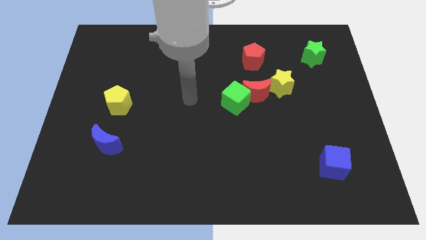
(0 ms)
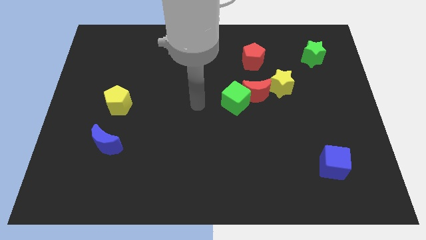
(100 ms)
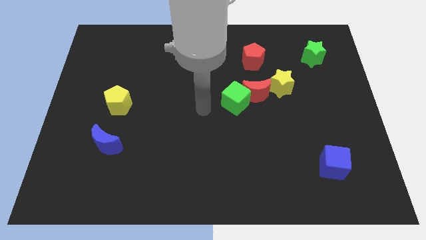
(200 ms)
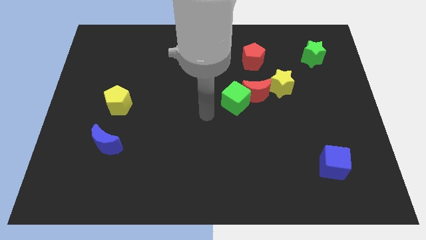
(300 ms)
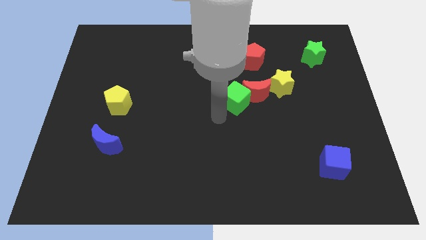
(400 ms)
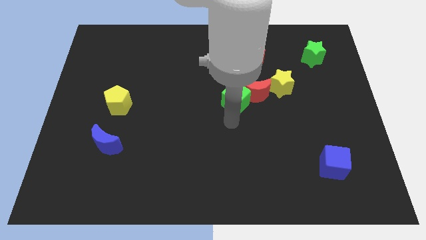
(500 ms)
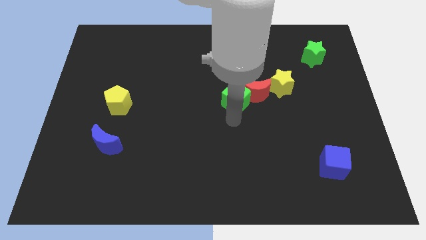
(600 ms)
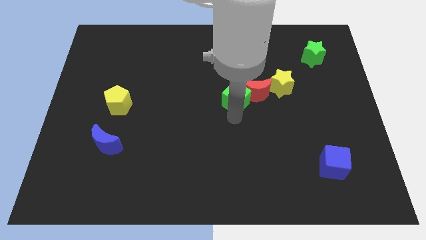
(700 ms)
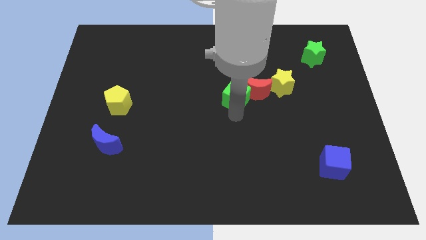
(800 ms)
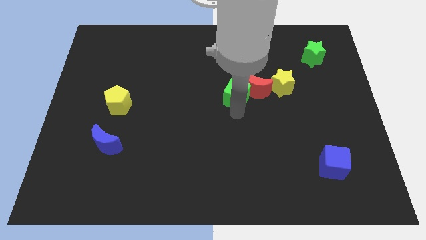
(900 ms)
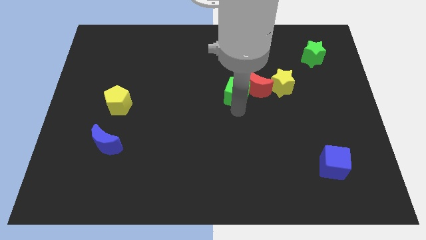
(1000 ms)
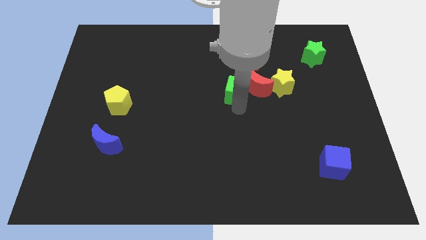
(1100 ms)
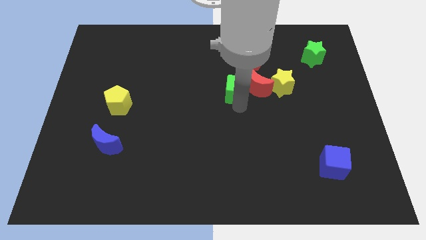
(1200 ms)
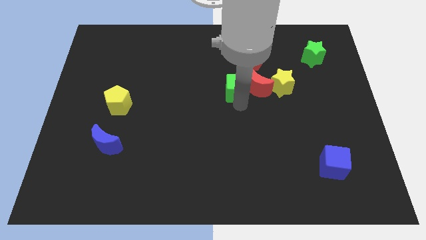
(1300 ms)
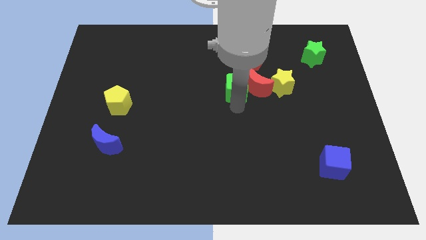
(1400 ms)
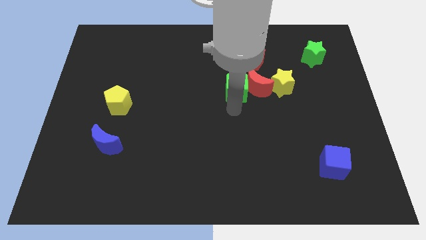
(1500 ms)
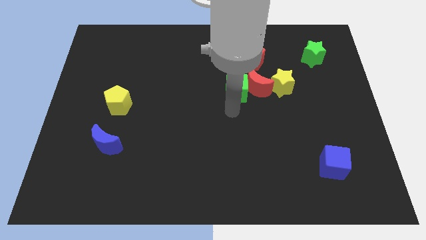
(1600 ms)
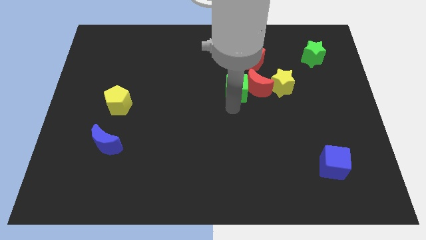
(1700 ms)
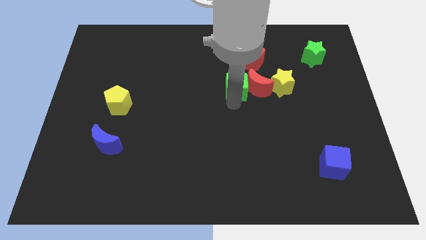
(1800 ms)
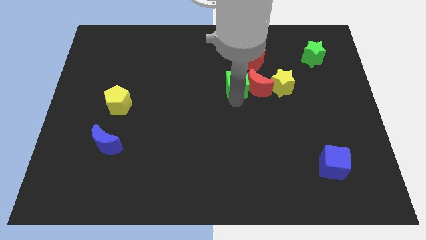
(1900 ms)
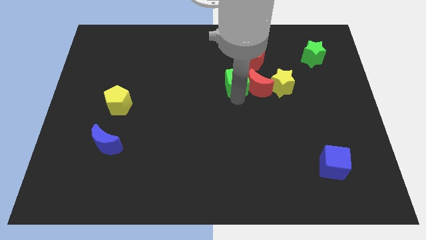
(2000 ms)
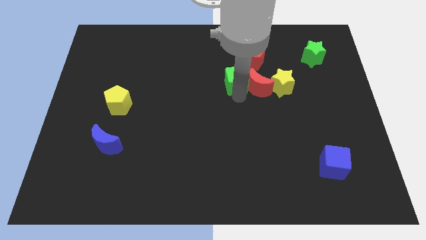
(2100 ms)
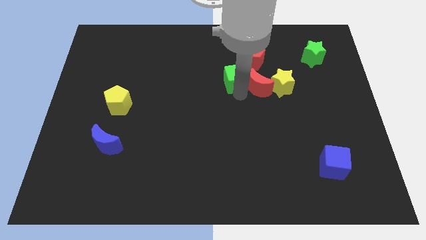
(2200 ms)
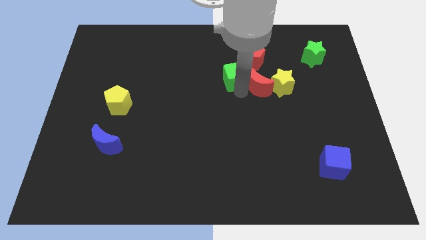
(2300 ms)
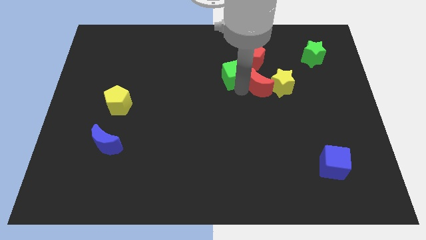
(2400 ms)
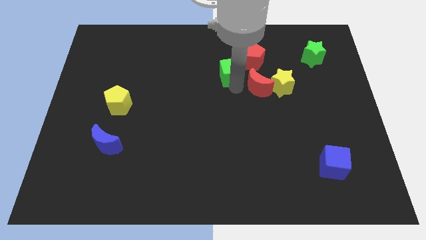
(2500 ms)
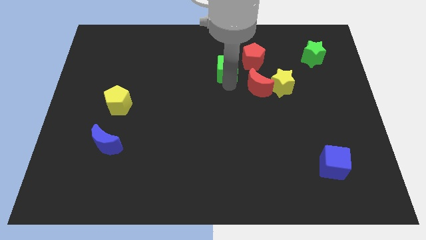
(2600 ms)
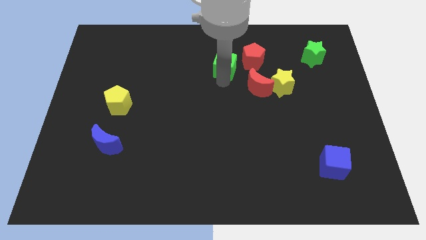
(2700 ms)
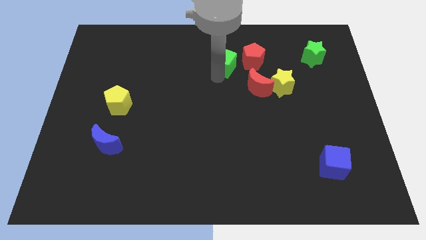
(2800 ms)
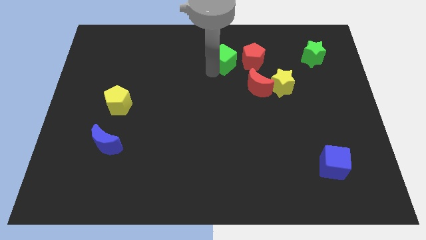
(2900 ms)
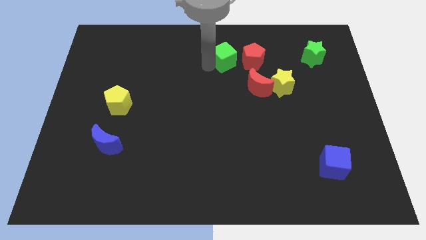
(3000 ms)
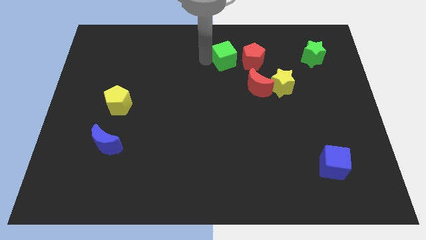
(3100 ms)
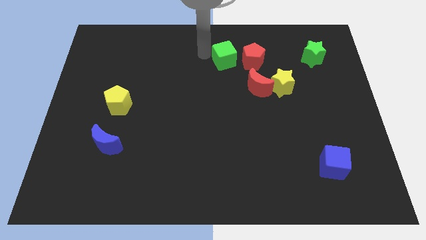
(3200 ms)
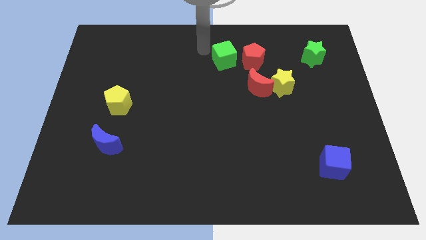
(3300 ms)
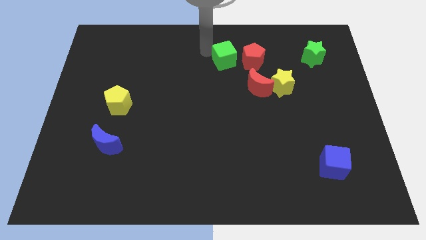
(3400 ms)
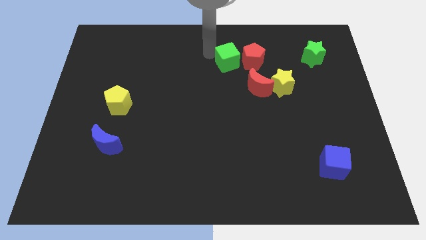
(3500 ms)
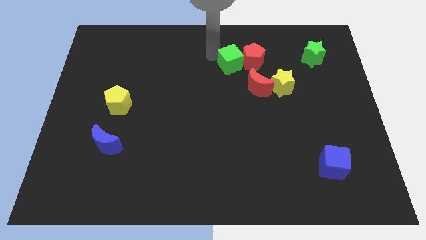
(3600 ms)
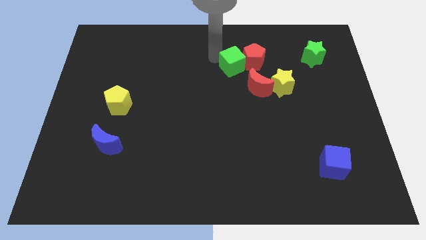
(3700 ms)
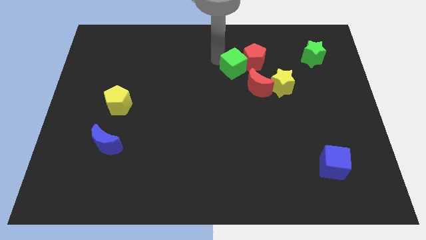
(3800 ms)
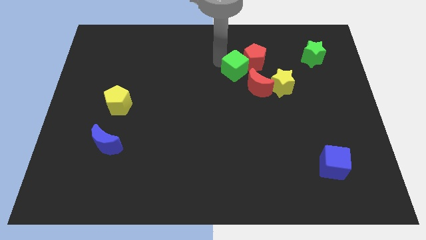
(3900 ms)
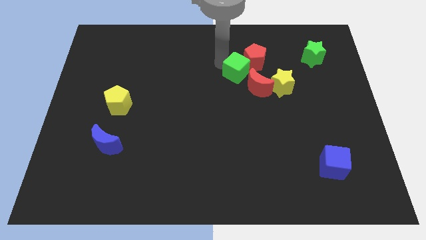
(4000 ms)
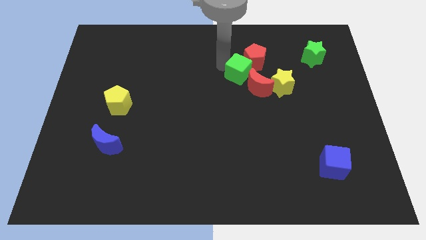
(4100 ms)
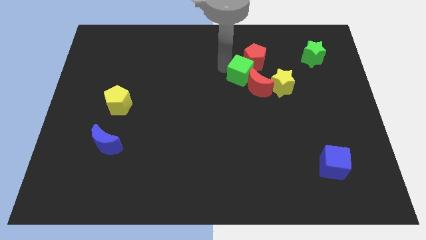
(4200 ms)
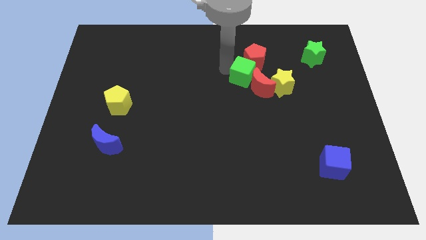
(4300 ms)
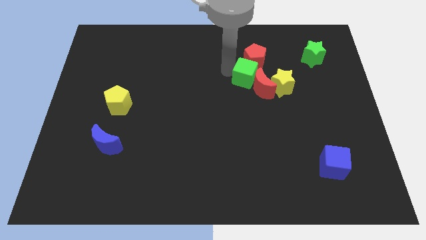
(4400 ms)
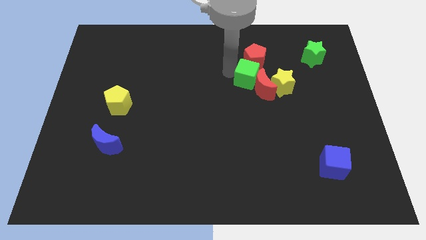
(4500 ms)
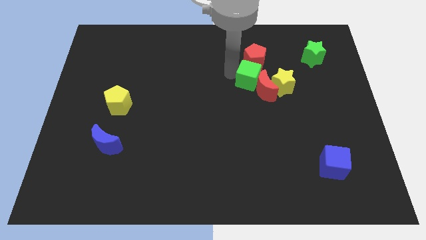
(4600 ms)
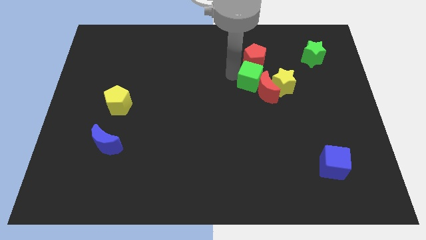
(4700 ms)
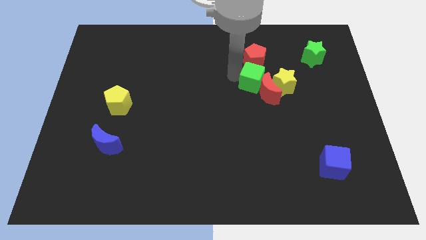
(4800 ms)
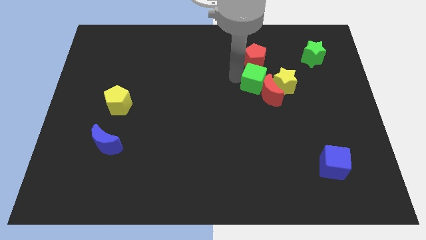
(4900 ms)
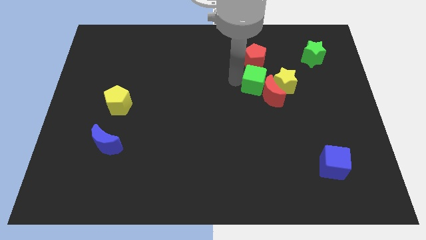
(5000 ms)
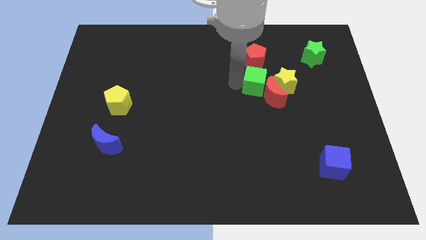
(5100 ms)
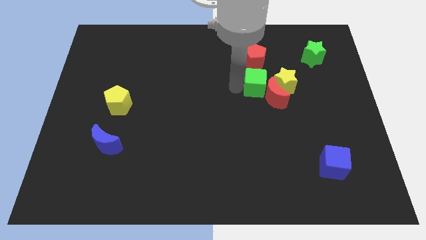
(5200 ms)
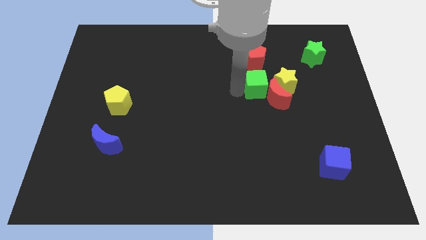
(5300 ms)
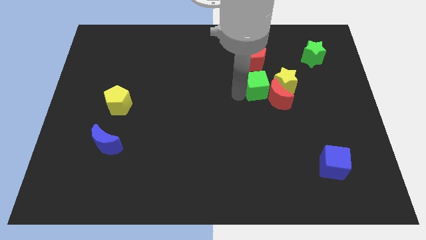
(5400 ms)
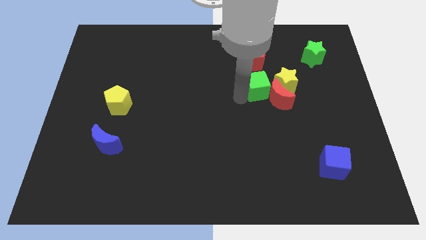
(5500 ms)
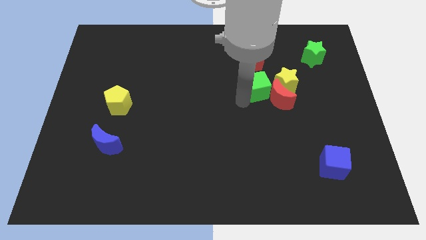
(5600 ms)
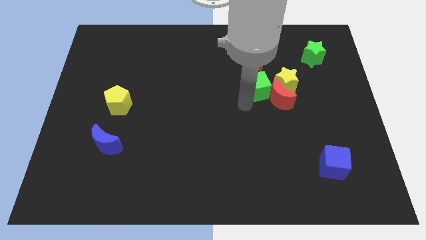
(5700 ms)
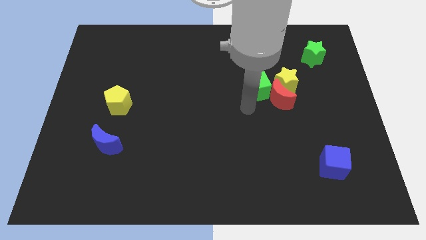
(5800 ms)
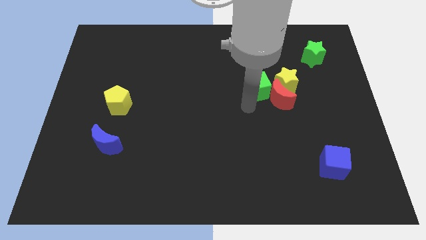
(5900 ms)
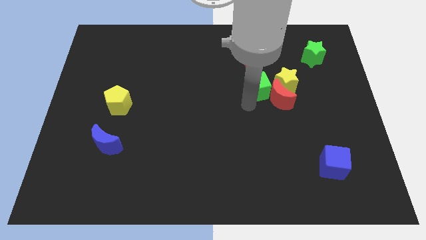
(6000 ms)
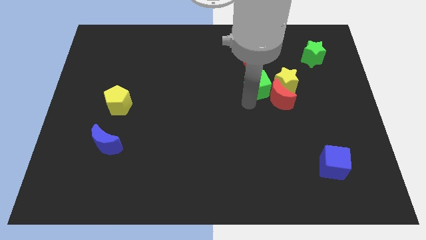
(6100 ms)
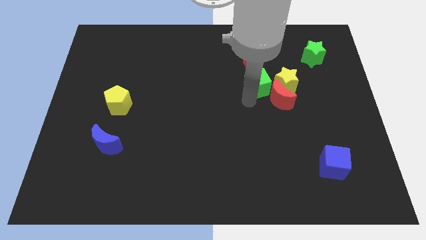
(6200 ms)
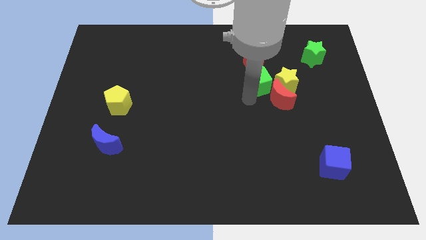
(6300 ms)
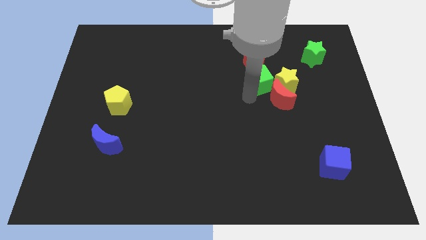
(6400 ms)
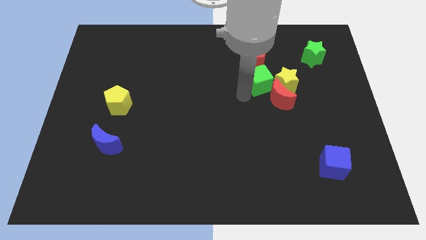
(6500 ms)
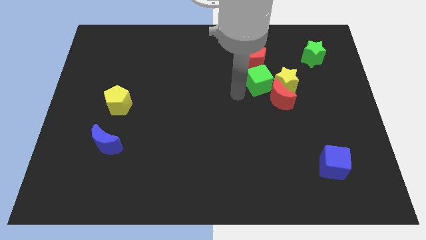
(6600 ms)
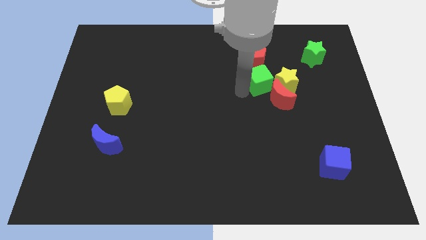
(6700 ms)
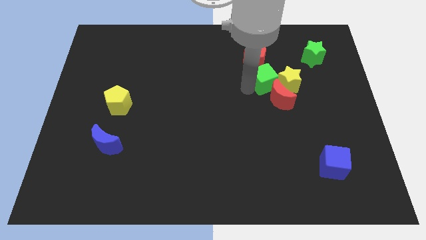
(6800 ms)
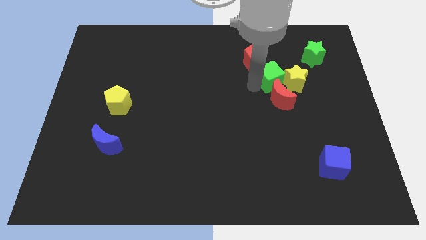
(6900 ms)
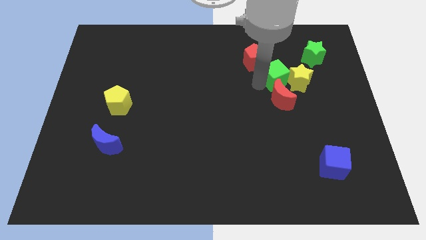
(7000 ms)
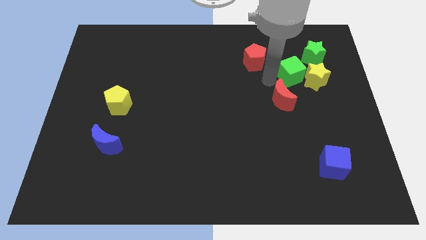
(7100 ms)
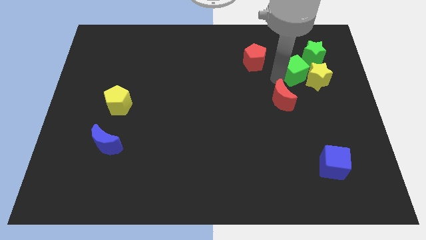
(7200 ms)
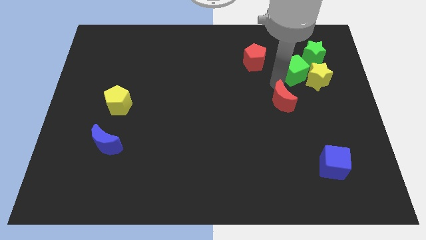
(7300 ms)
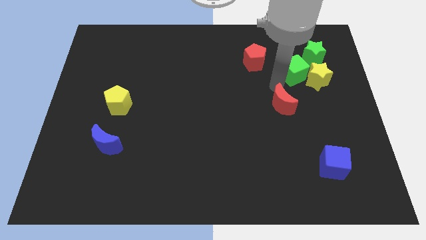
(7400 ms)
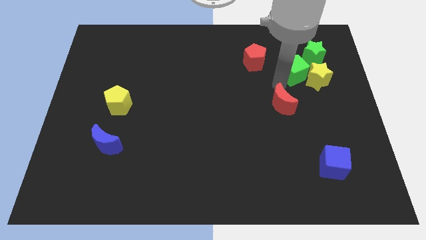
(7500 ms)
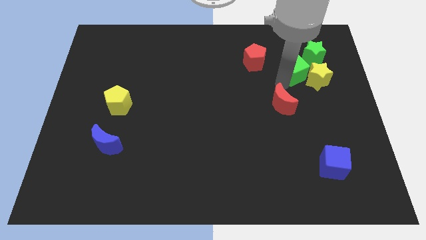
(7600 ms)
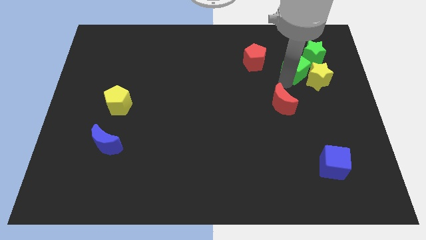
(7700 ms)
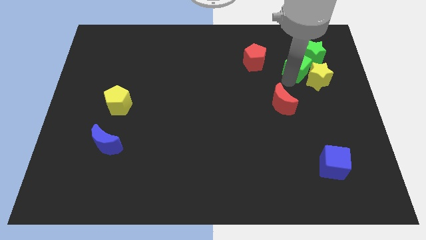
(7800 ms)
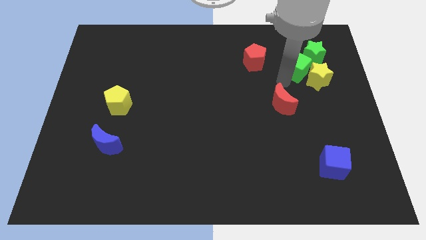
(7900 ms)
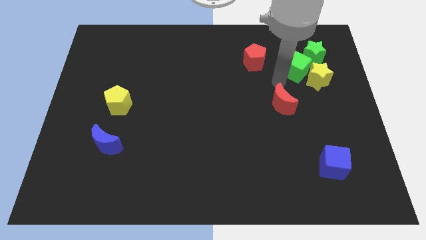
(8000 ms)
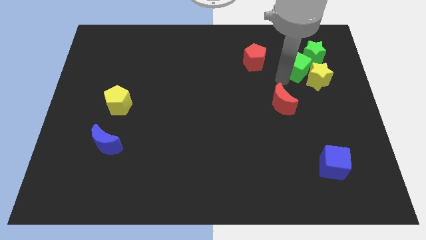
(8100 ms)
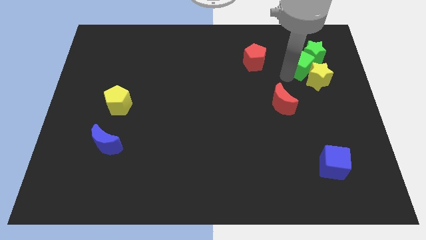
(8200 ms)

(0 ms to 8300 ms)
push the green cube next to the green star
